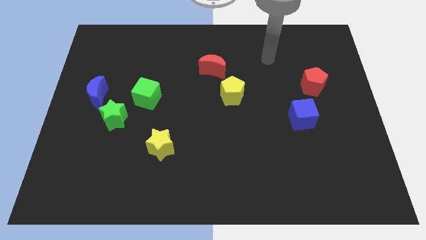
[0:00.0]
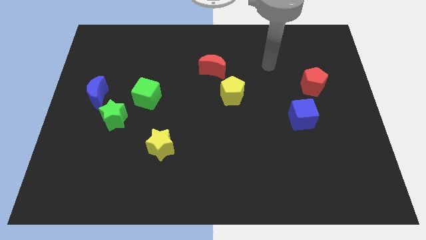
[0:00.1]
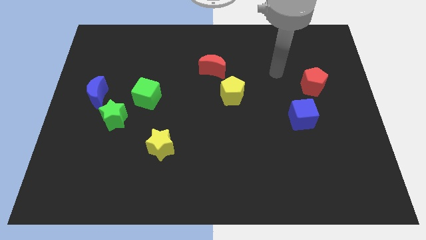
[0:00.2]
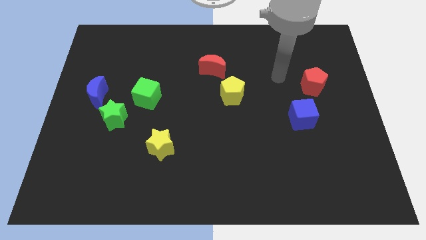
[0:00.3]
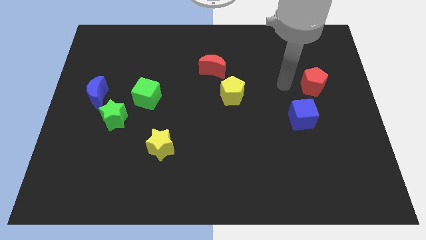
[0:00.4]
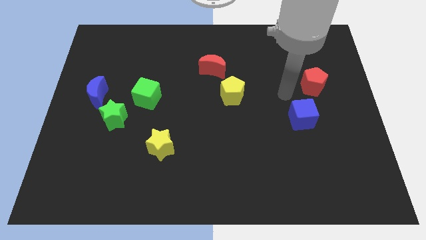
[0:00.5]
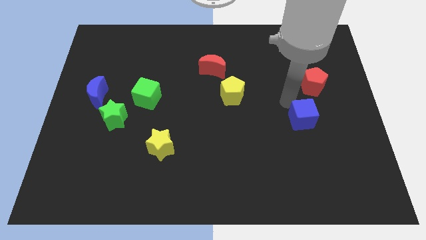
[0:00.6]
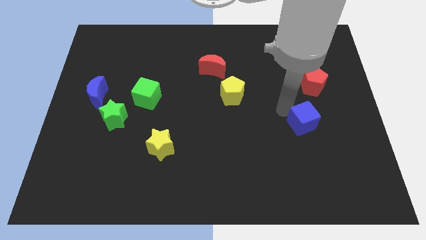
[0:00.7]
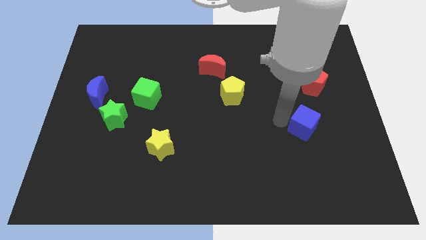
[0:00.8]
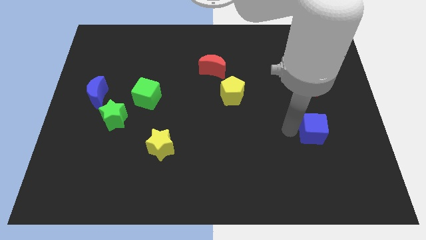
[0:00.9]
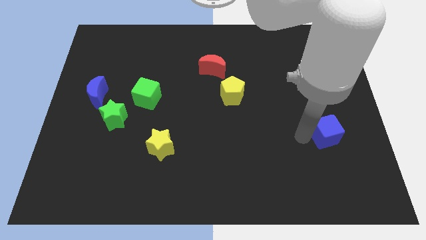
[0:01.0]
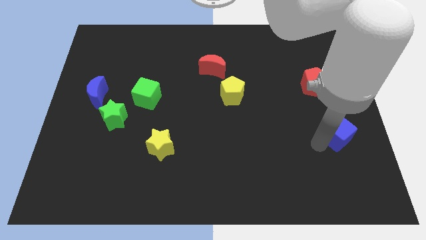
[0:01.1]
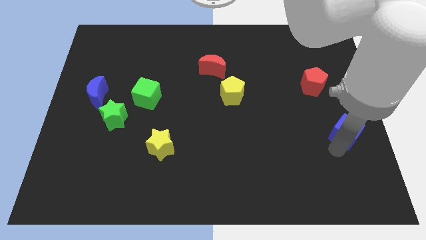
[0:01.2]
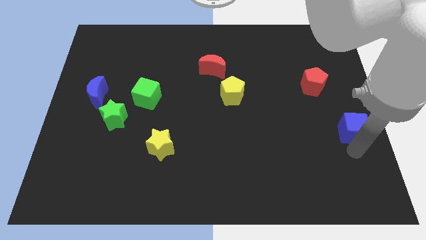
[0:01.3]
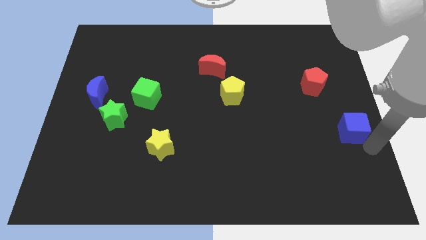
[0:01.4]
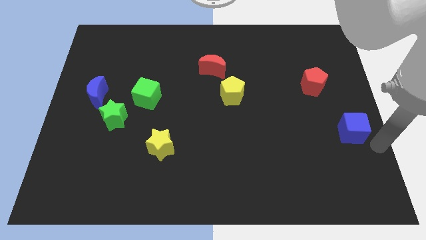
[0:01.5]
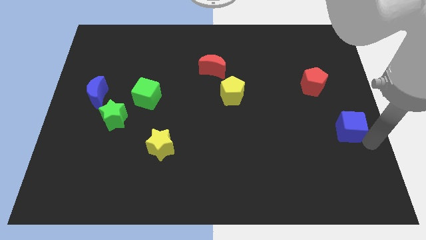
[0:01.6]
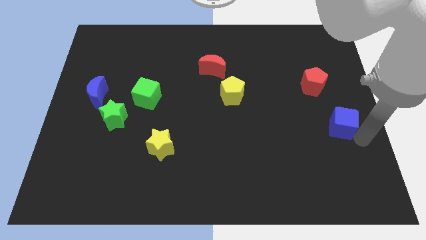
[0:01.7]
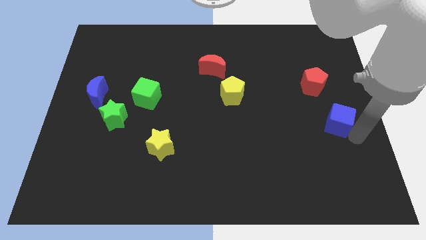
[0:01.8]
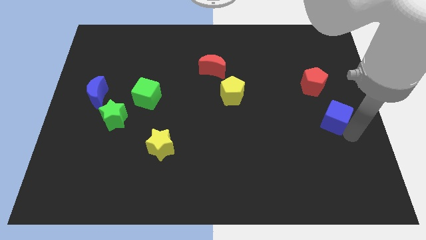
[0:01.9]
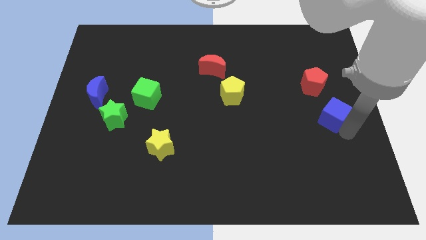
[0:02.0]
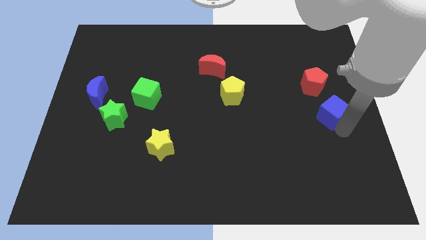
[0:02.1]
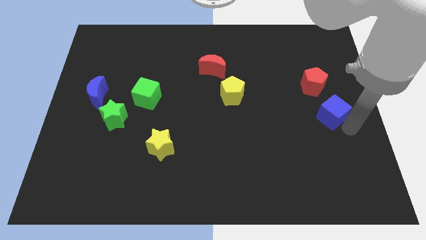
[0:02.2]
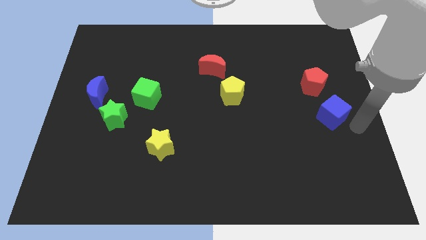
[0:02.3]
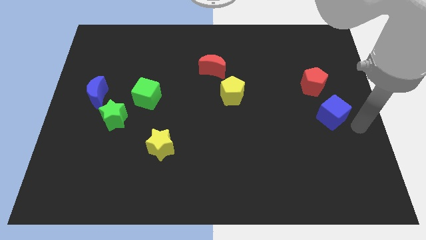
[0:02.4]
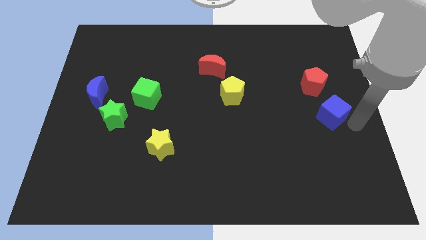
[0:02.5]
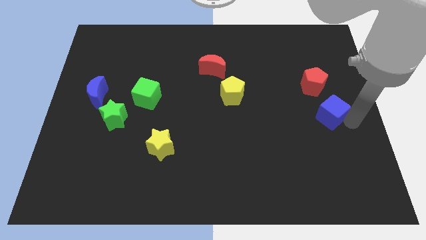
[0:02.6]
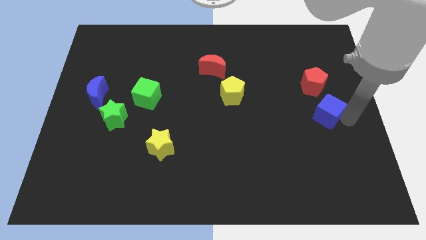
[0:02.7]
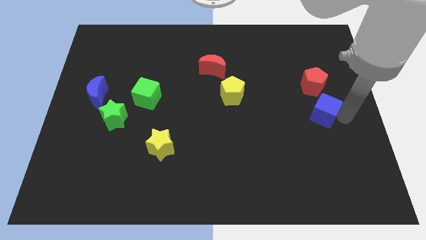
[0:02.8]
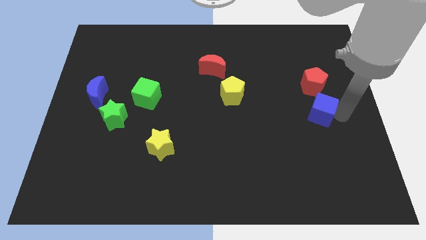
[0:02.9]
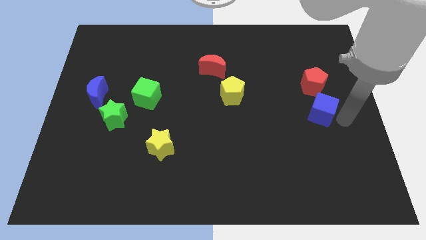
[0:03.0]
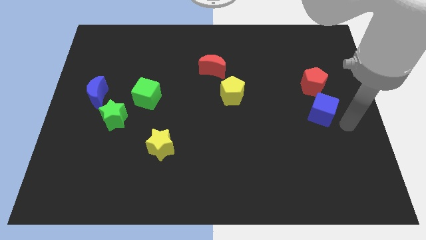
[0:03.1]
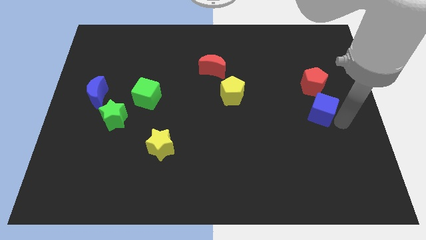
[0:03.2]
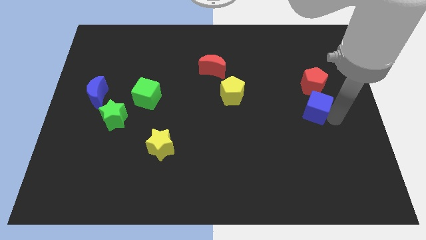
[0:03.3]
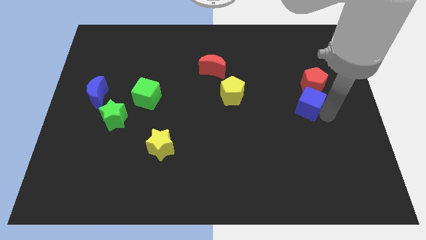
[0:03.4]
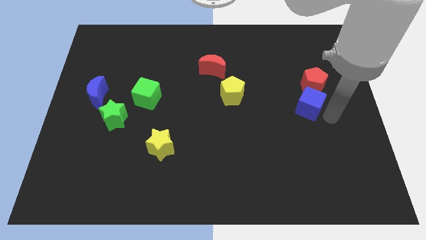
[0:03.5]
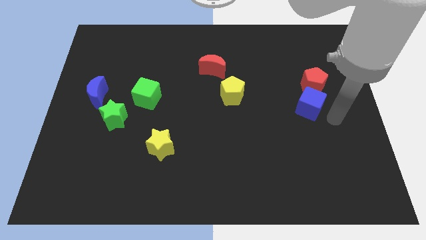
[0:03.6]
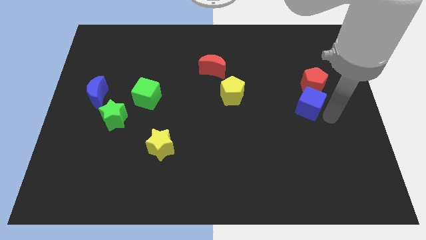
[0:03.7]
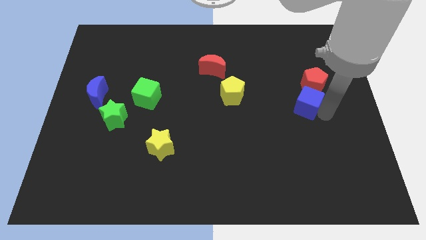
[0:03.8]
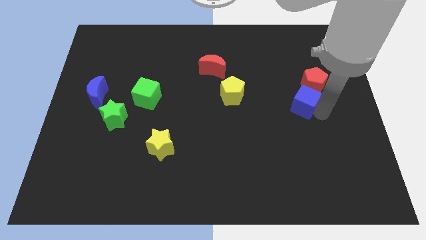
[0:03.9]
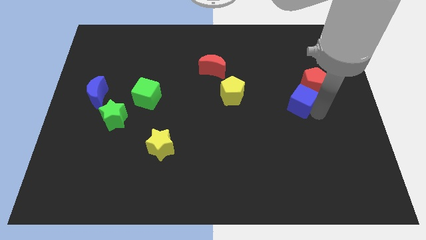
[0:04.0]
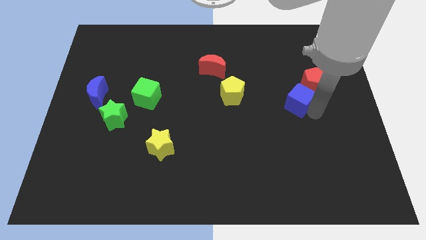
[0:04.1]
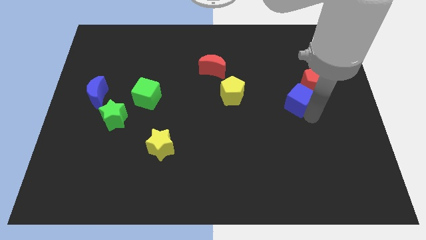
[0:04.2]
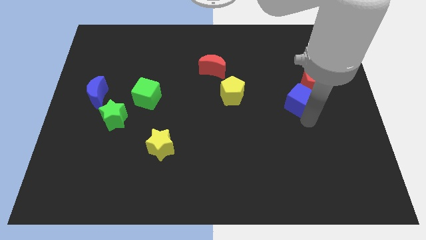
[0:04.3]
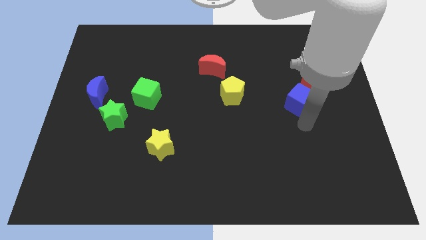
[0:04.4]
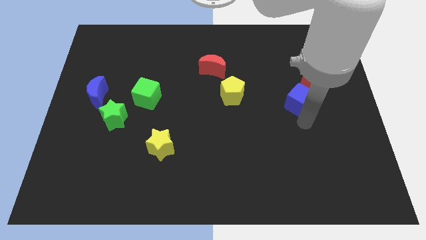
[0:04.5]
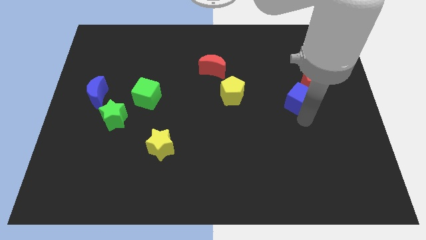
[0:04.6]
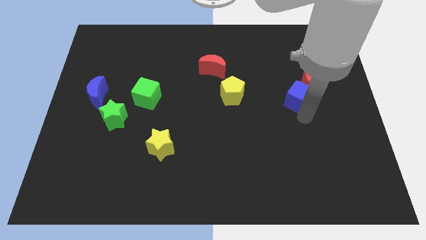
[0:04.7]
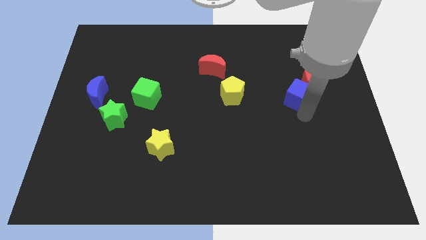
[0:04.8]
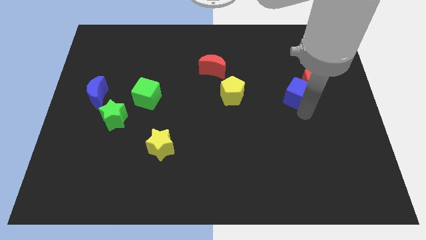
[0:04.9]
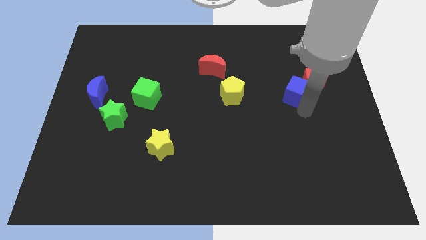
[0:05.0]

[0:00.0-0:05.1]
move the blue cube upwards somewhat

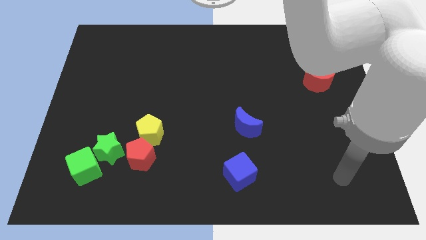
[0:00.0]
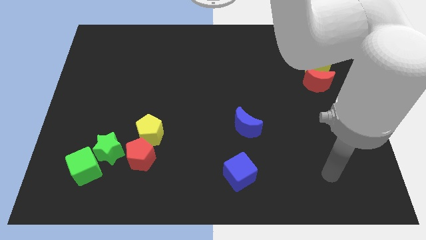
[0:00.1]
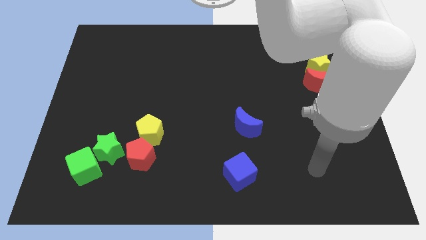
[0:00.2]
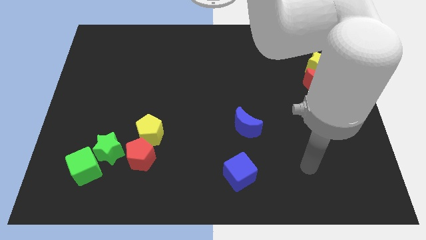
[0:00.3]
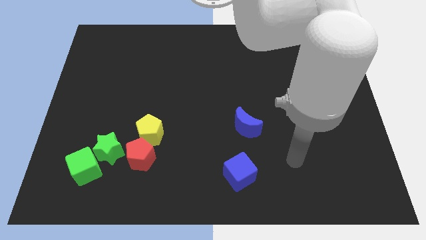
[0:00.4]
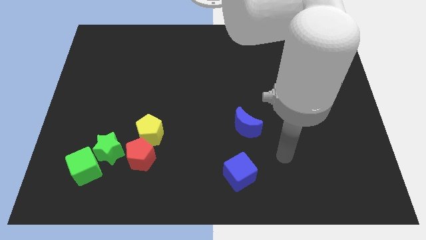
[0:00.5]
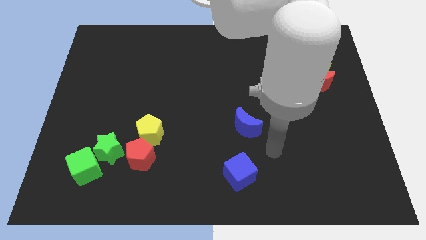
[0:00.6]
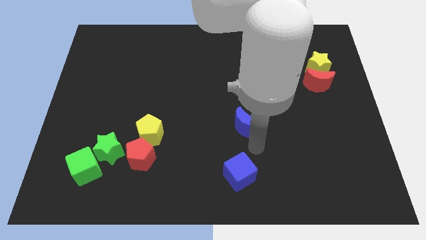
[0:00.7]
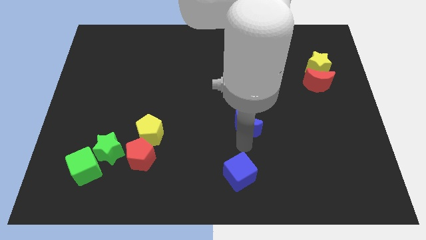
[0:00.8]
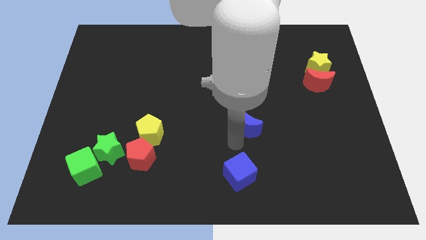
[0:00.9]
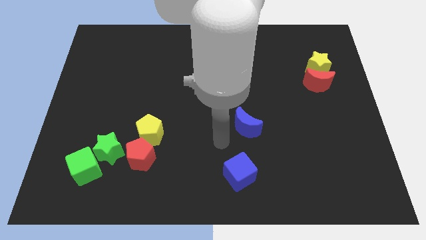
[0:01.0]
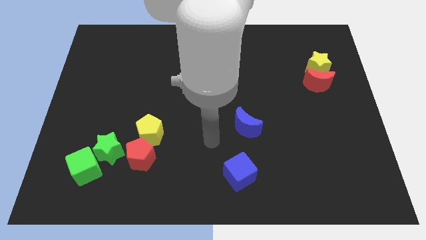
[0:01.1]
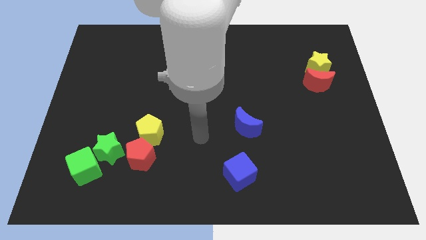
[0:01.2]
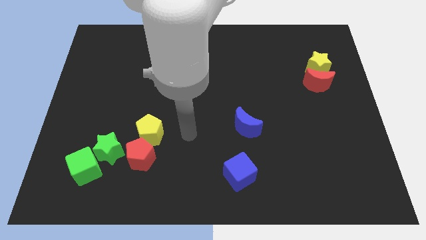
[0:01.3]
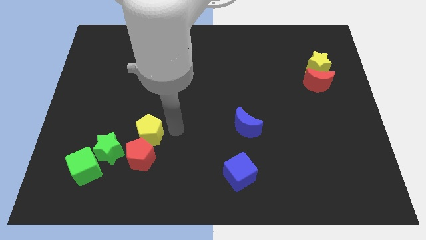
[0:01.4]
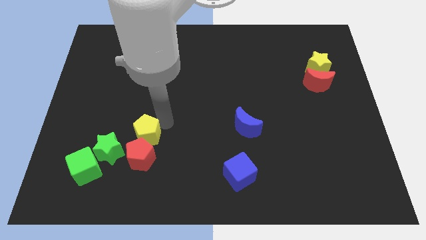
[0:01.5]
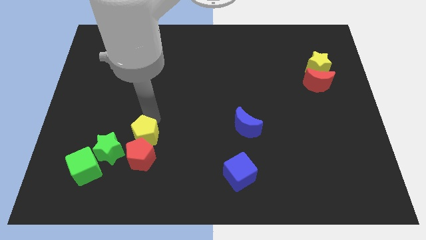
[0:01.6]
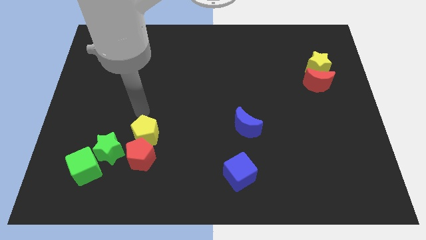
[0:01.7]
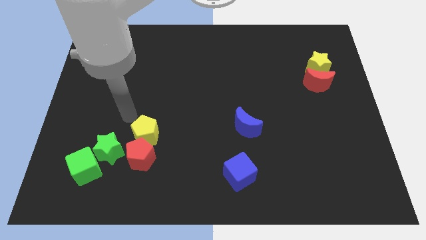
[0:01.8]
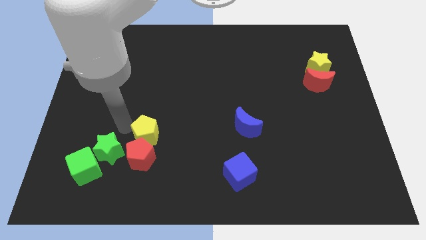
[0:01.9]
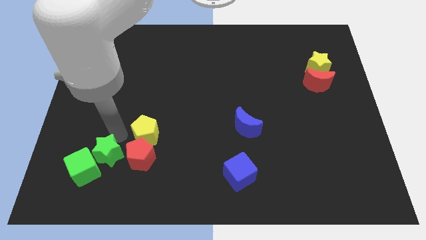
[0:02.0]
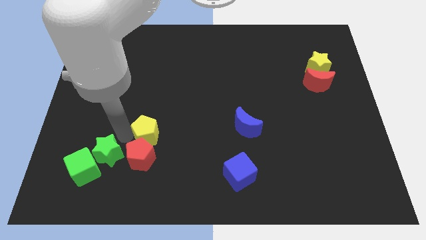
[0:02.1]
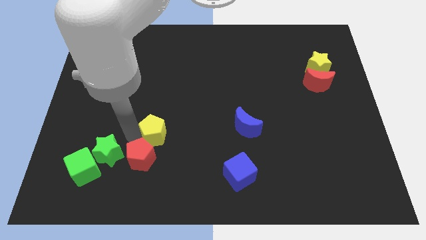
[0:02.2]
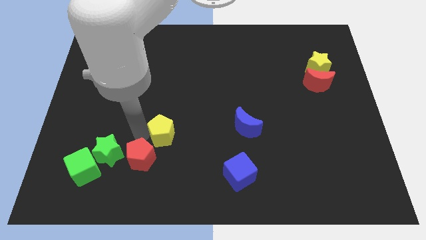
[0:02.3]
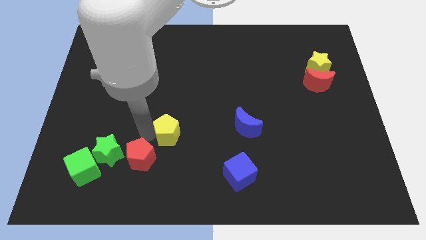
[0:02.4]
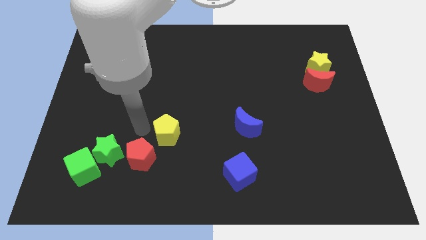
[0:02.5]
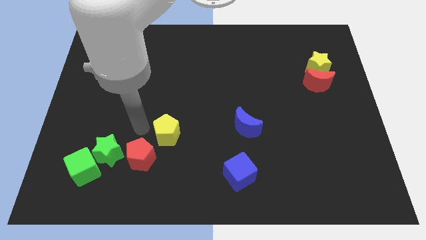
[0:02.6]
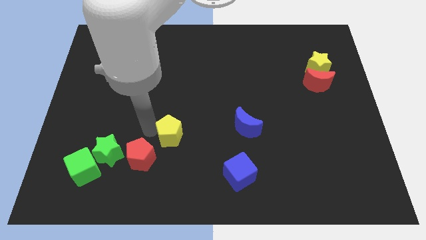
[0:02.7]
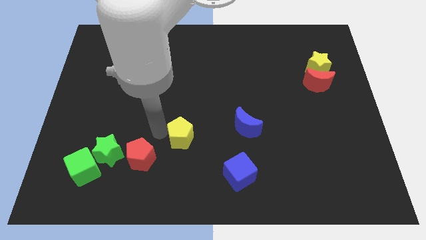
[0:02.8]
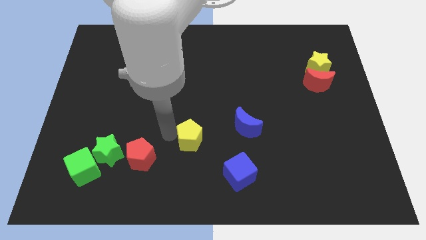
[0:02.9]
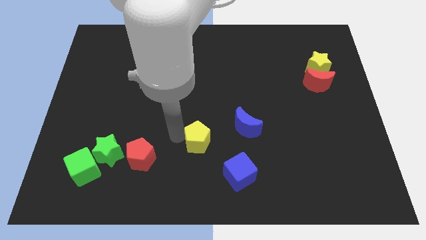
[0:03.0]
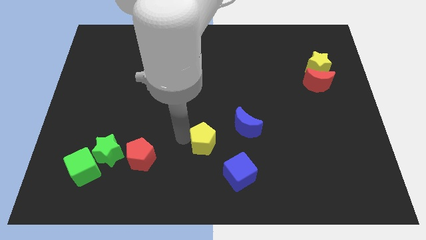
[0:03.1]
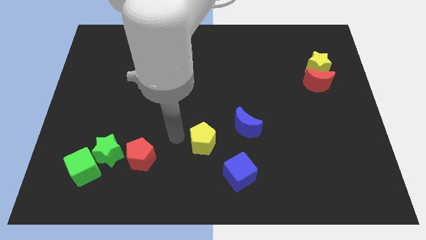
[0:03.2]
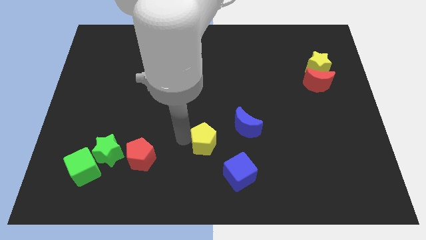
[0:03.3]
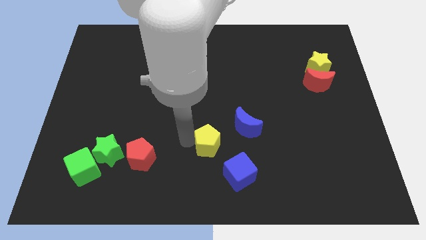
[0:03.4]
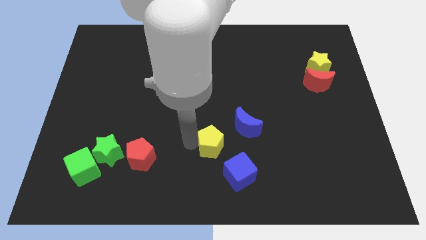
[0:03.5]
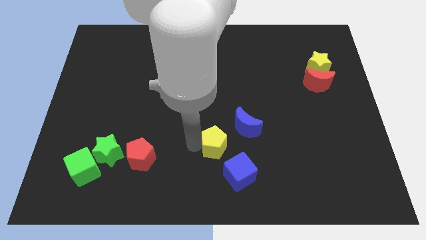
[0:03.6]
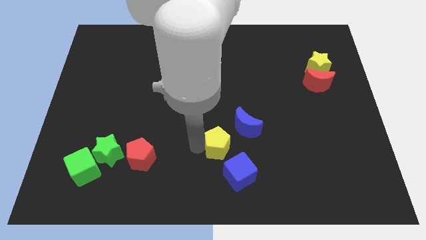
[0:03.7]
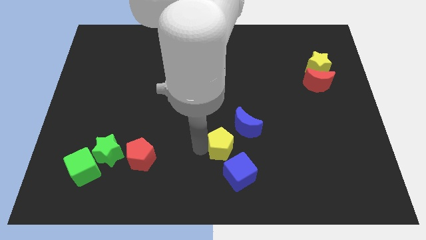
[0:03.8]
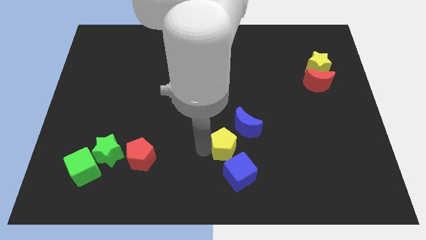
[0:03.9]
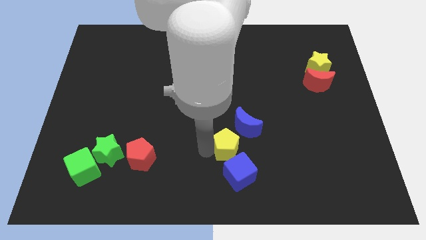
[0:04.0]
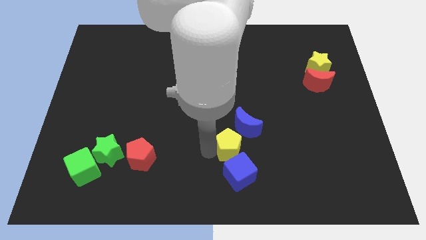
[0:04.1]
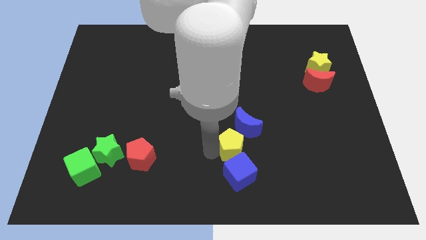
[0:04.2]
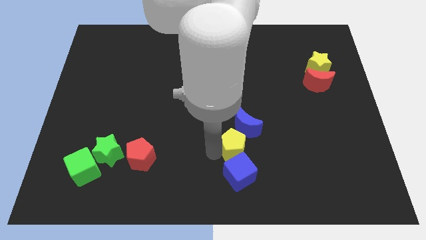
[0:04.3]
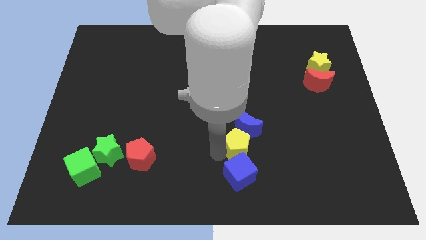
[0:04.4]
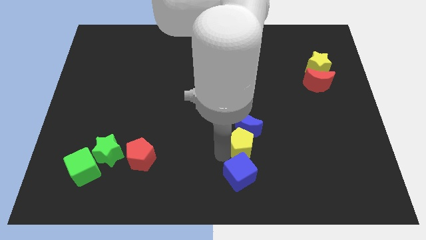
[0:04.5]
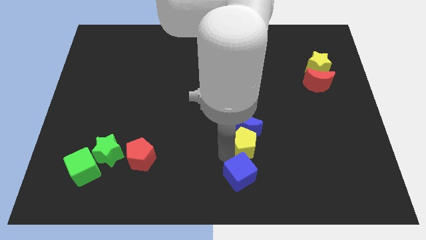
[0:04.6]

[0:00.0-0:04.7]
slide the yellow pentagon right
